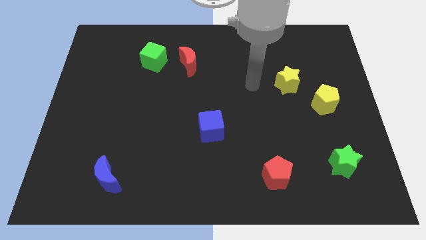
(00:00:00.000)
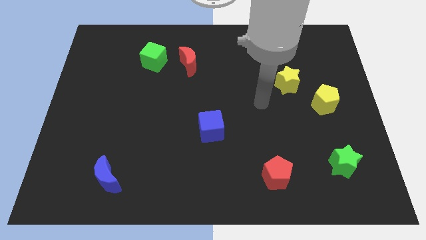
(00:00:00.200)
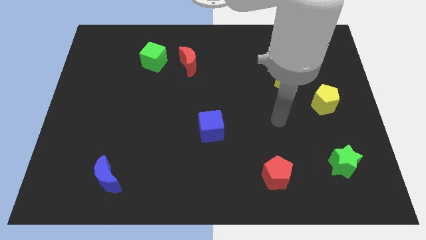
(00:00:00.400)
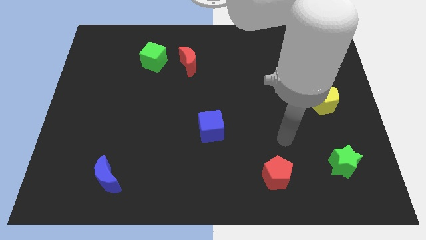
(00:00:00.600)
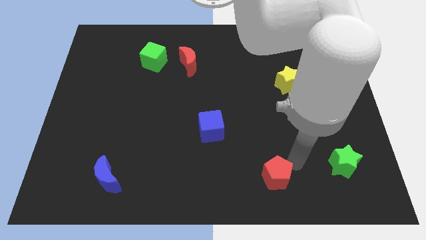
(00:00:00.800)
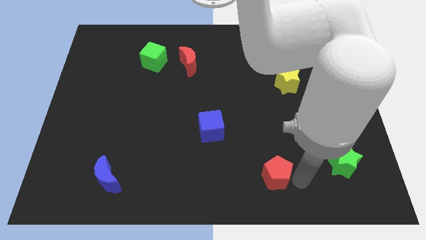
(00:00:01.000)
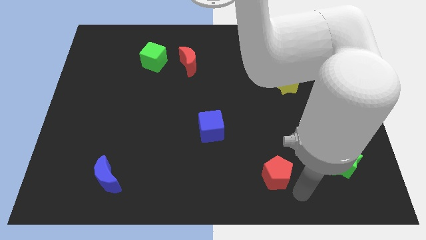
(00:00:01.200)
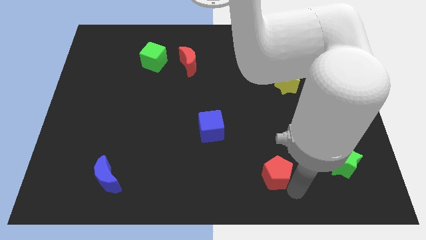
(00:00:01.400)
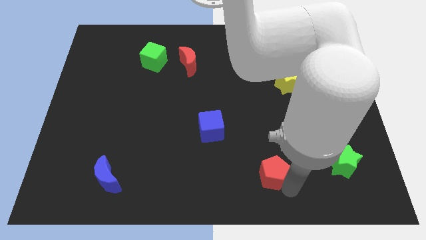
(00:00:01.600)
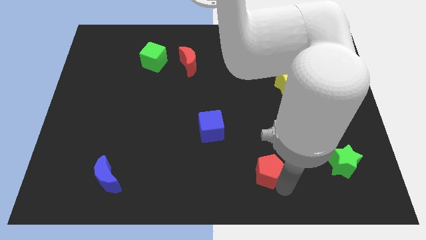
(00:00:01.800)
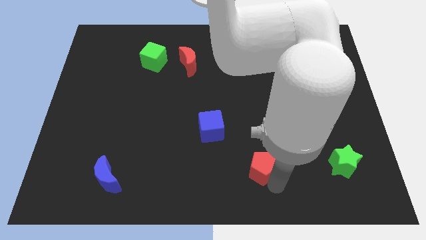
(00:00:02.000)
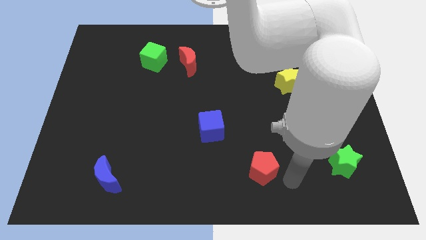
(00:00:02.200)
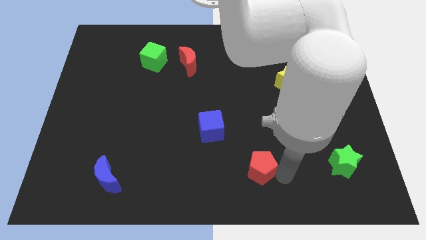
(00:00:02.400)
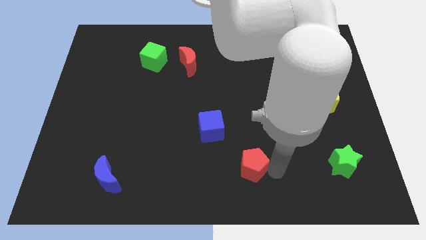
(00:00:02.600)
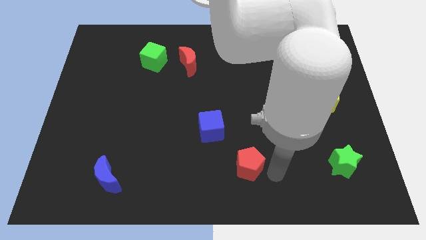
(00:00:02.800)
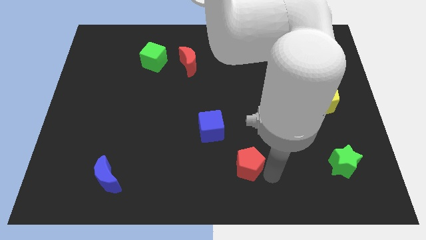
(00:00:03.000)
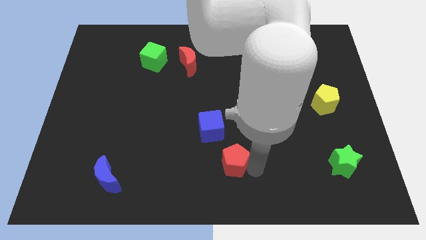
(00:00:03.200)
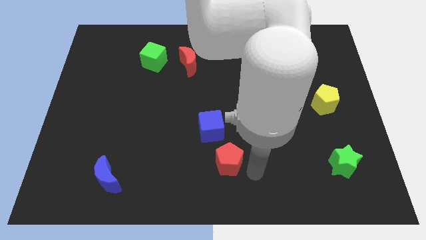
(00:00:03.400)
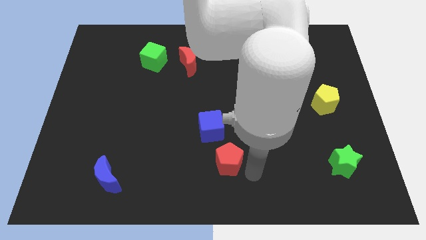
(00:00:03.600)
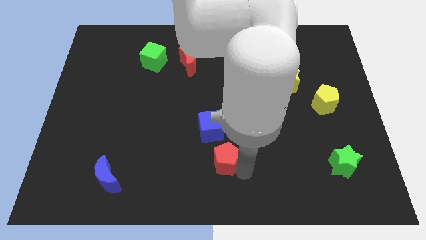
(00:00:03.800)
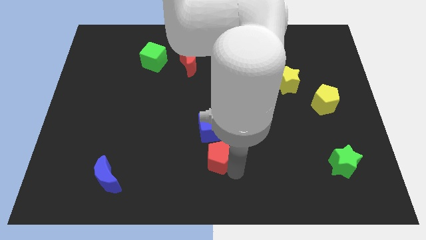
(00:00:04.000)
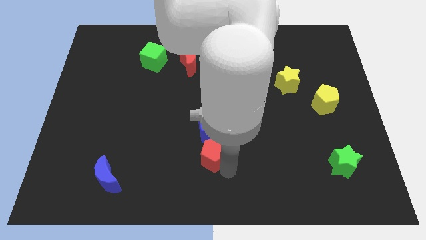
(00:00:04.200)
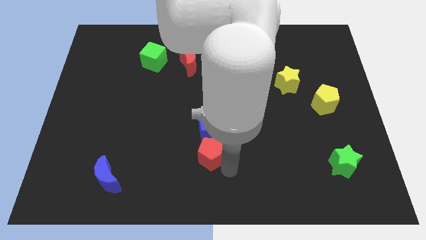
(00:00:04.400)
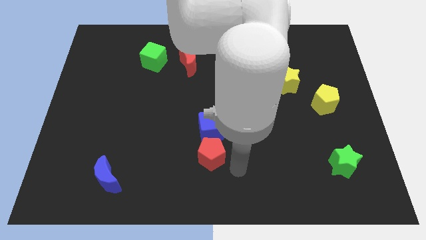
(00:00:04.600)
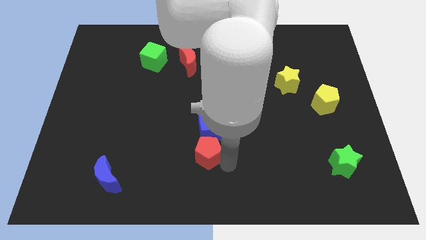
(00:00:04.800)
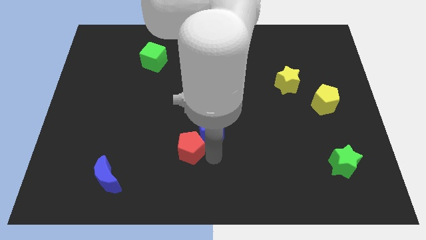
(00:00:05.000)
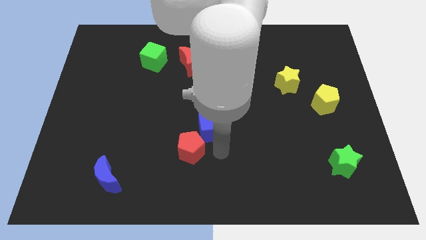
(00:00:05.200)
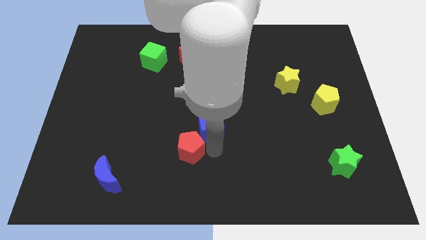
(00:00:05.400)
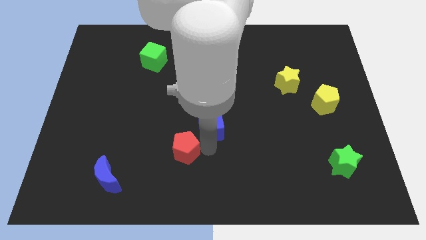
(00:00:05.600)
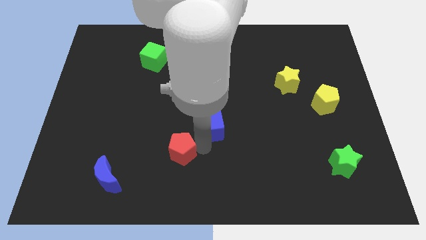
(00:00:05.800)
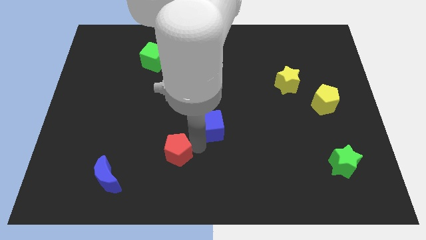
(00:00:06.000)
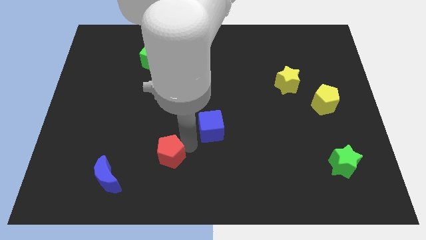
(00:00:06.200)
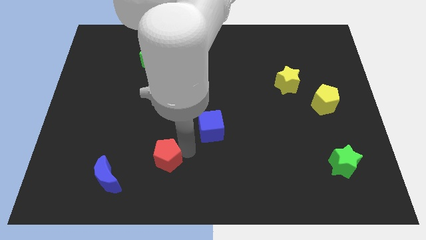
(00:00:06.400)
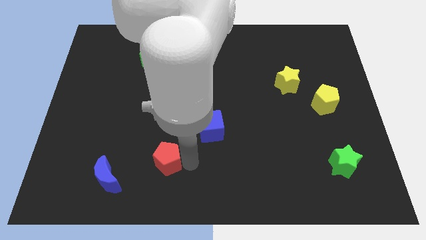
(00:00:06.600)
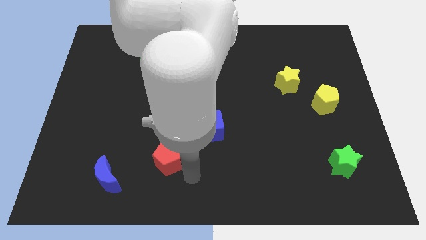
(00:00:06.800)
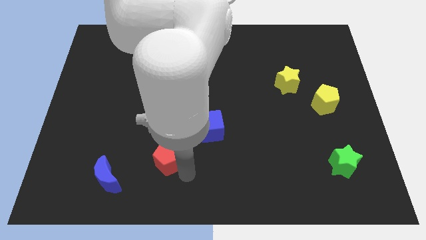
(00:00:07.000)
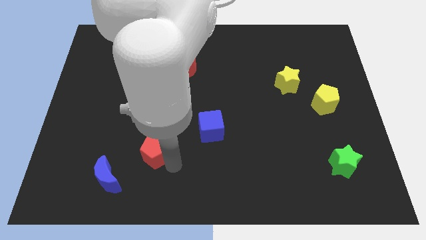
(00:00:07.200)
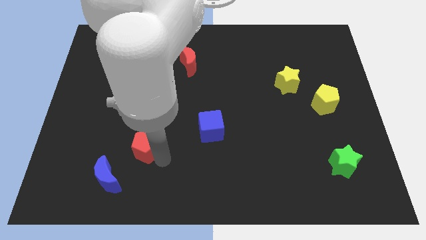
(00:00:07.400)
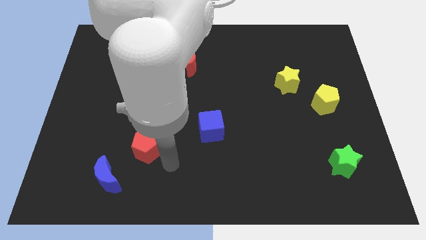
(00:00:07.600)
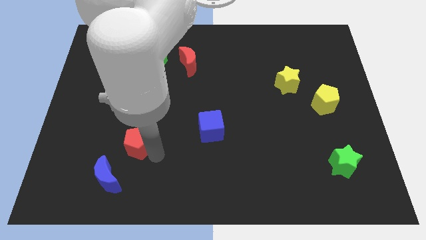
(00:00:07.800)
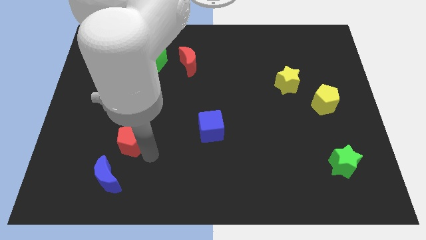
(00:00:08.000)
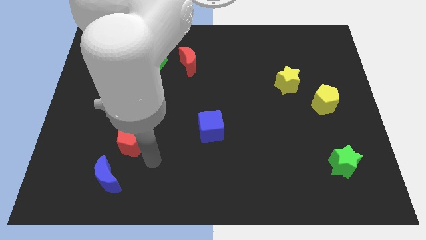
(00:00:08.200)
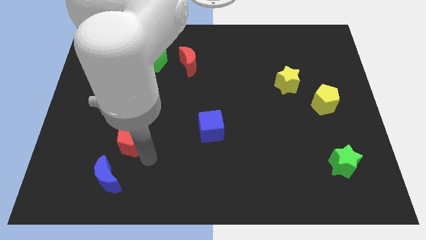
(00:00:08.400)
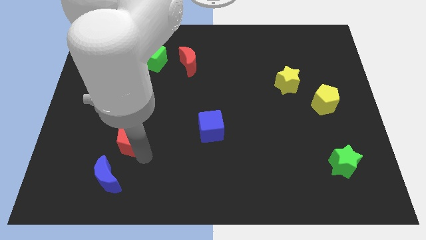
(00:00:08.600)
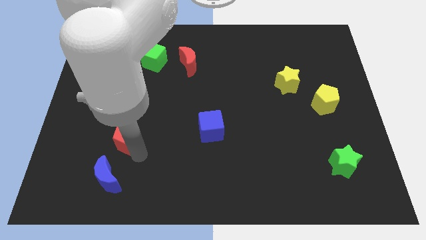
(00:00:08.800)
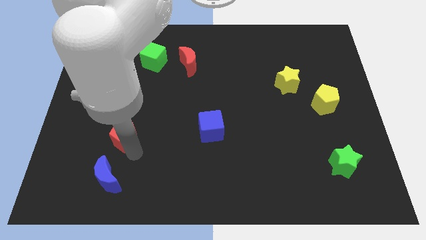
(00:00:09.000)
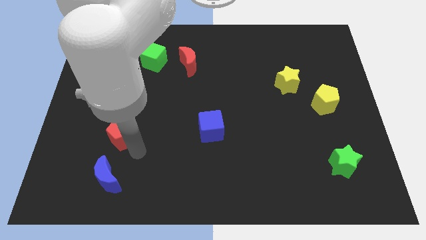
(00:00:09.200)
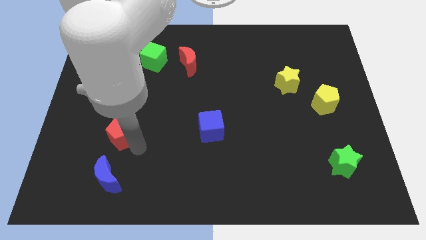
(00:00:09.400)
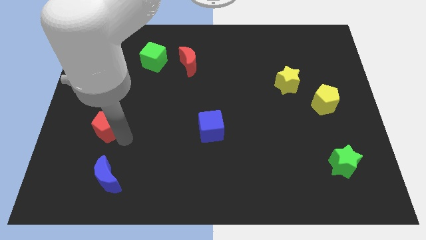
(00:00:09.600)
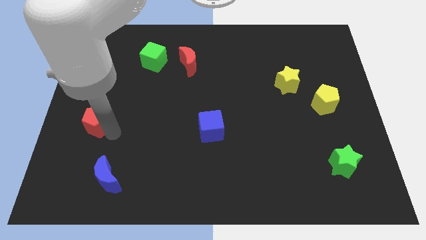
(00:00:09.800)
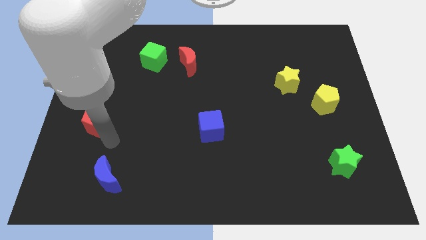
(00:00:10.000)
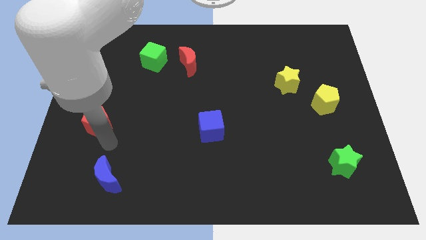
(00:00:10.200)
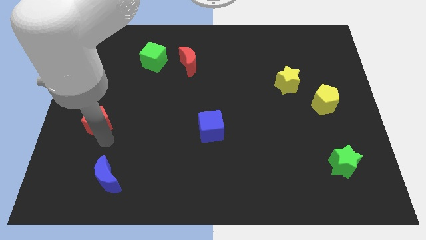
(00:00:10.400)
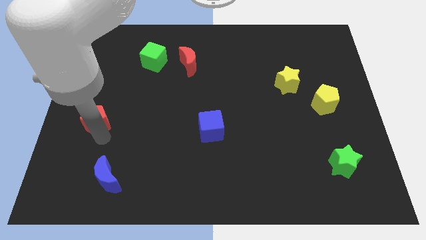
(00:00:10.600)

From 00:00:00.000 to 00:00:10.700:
put the red pentagon to the left side

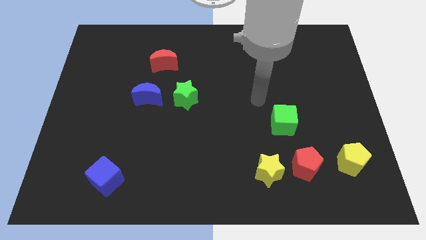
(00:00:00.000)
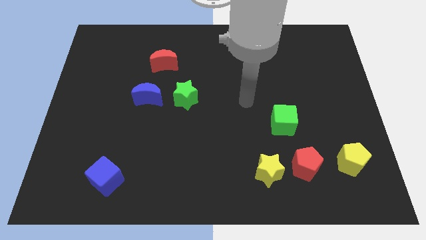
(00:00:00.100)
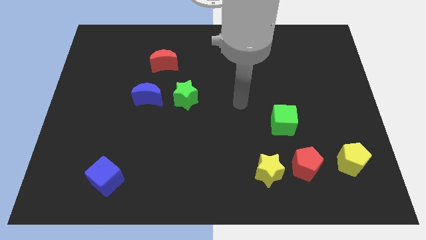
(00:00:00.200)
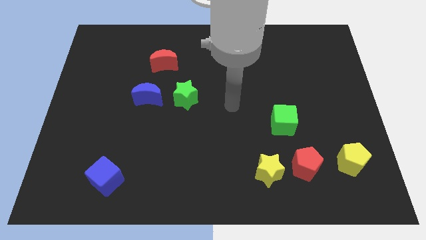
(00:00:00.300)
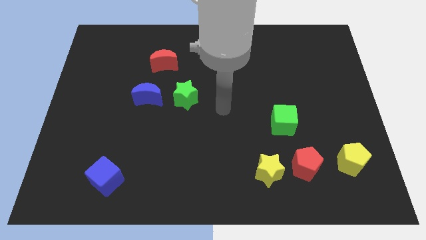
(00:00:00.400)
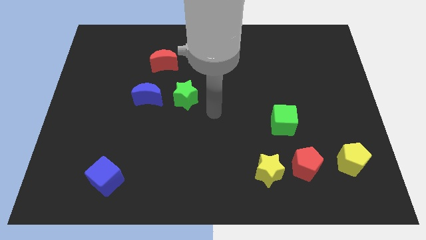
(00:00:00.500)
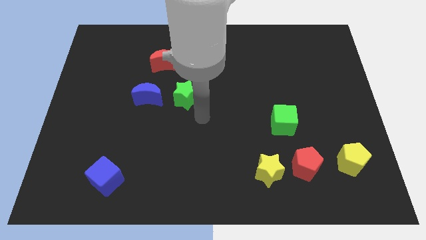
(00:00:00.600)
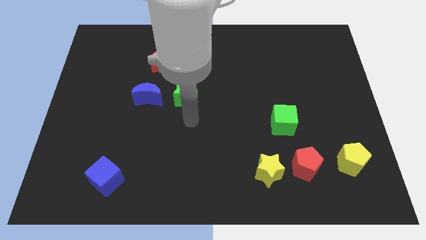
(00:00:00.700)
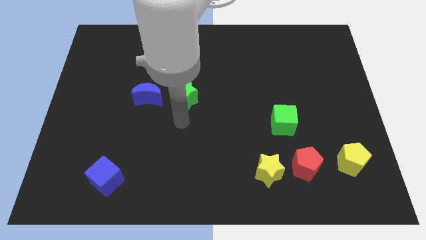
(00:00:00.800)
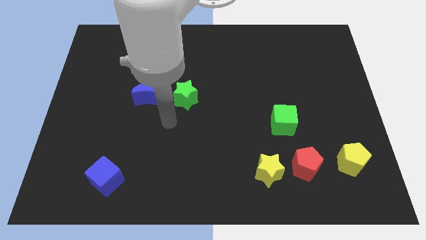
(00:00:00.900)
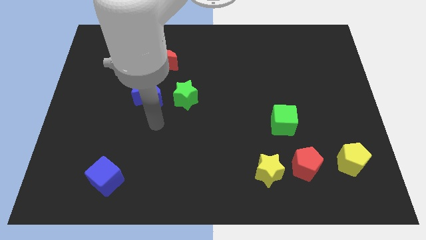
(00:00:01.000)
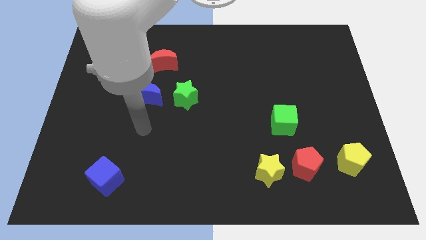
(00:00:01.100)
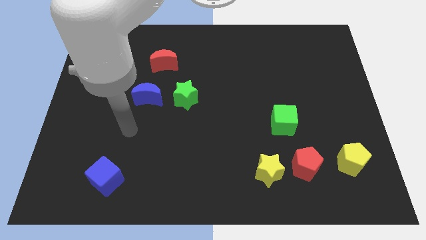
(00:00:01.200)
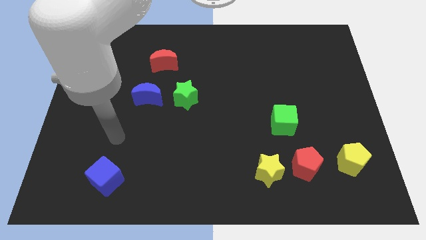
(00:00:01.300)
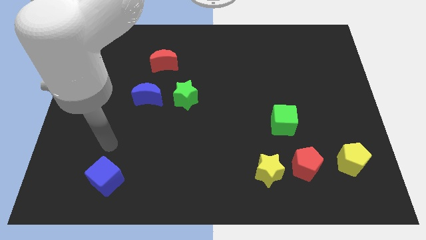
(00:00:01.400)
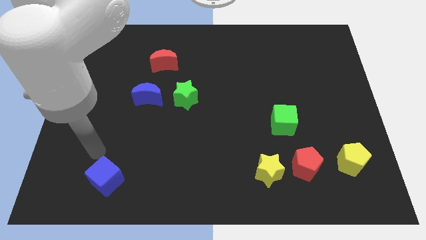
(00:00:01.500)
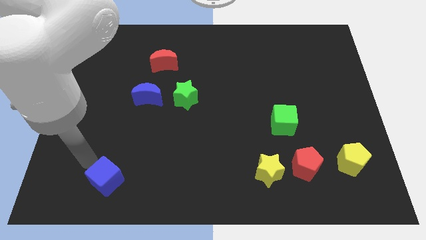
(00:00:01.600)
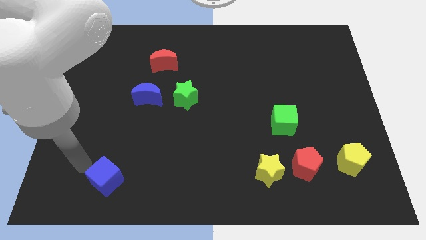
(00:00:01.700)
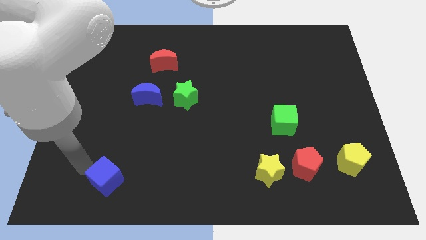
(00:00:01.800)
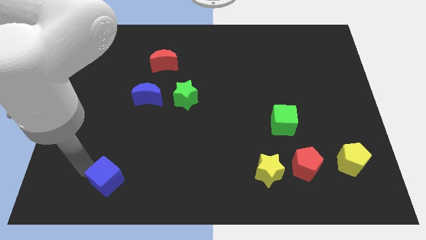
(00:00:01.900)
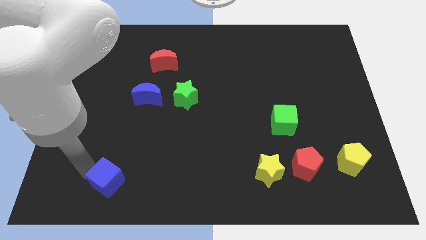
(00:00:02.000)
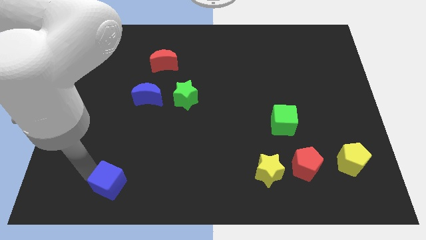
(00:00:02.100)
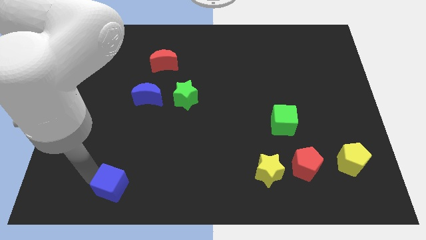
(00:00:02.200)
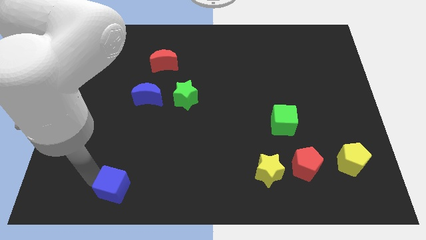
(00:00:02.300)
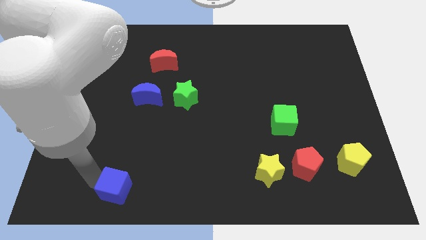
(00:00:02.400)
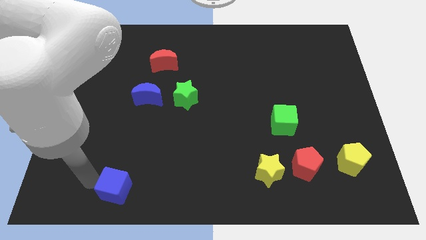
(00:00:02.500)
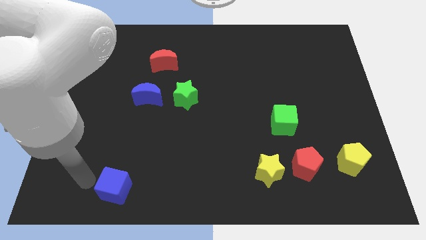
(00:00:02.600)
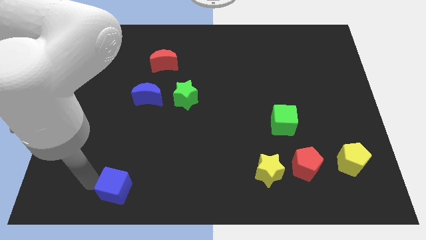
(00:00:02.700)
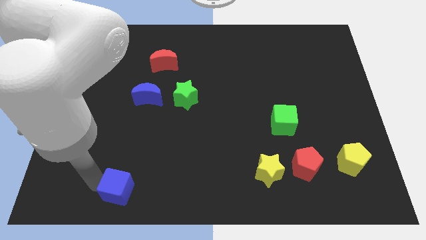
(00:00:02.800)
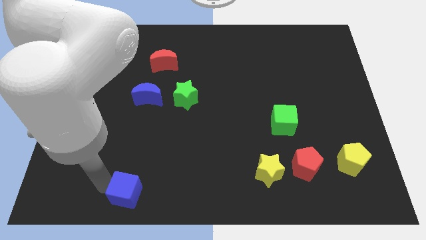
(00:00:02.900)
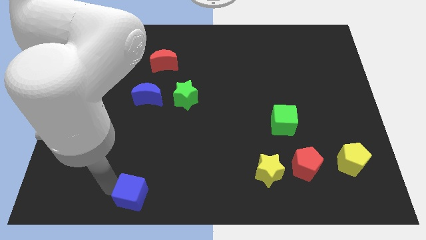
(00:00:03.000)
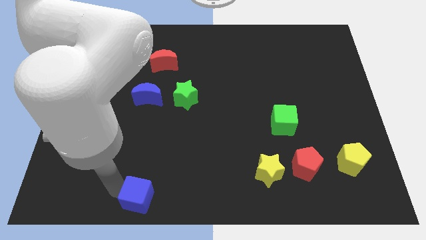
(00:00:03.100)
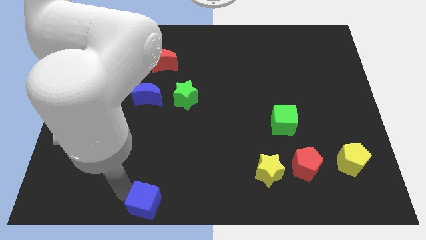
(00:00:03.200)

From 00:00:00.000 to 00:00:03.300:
move the blue cube to the bottom
